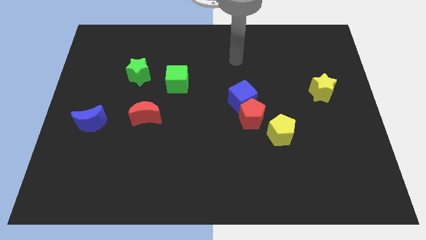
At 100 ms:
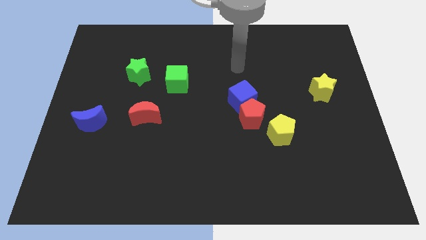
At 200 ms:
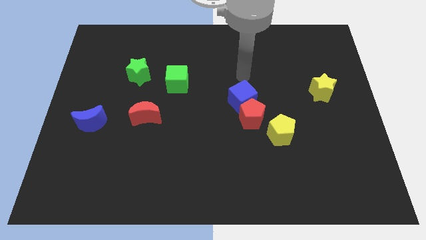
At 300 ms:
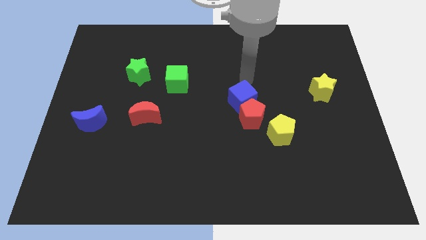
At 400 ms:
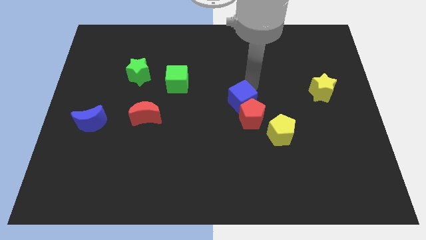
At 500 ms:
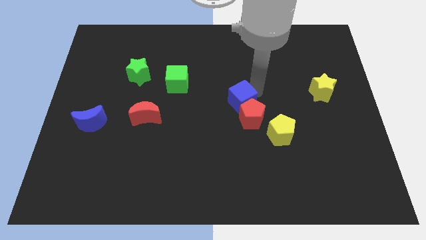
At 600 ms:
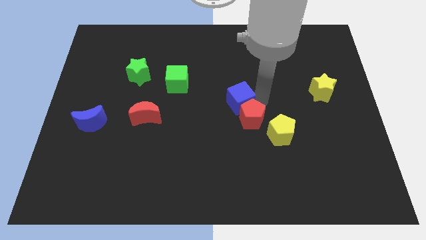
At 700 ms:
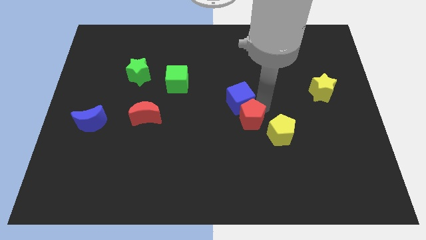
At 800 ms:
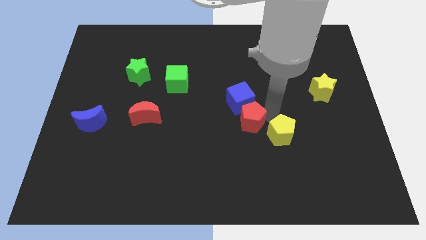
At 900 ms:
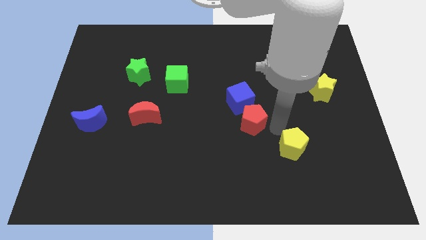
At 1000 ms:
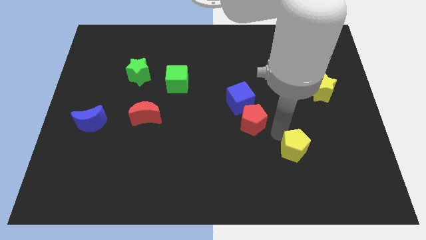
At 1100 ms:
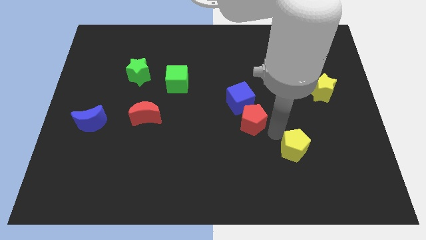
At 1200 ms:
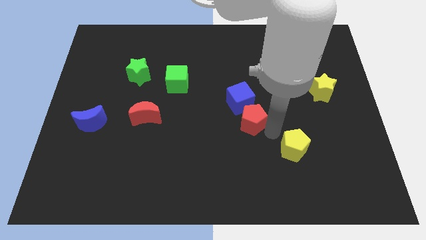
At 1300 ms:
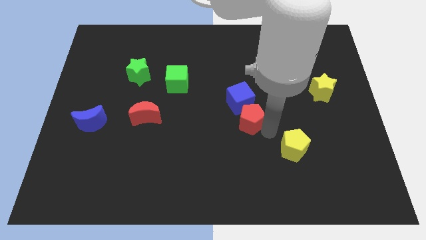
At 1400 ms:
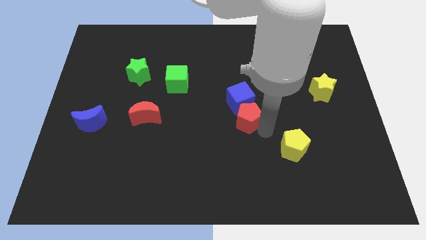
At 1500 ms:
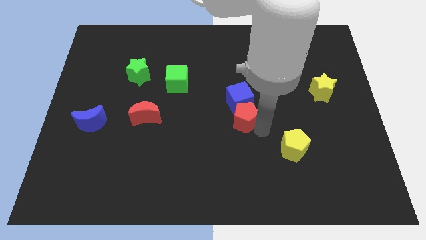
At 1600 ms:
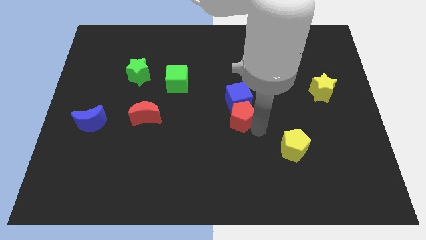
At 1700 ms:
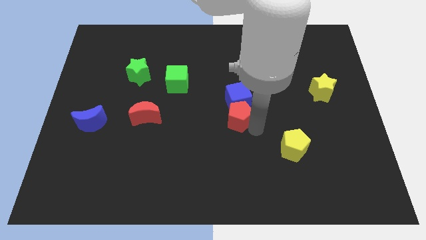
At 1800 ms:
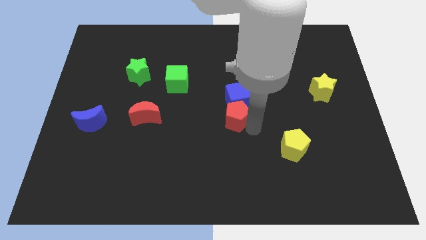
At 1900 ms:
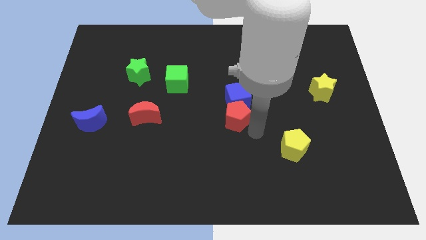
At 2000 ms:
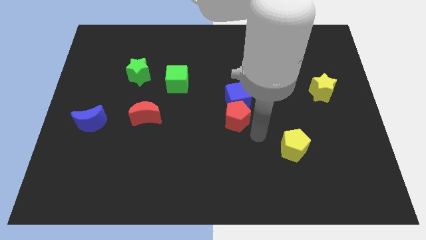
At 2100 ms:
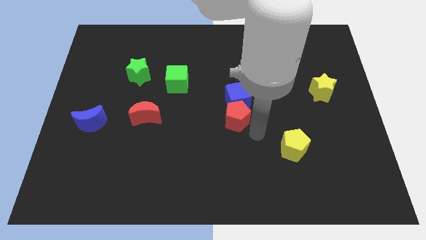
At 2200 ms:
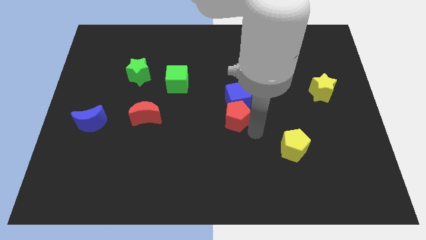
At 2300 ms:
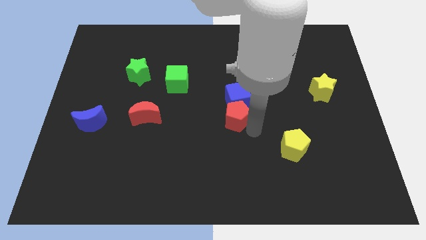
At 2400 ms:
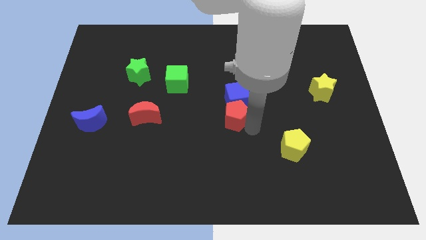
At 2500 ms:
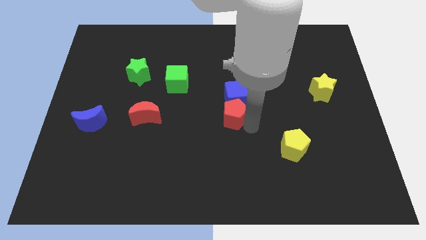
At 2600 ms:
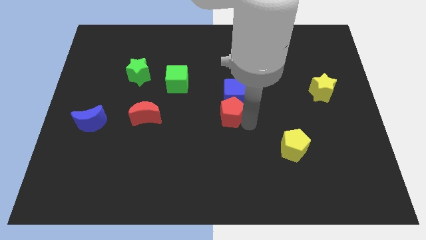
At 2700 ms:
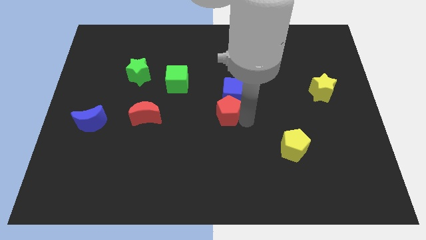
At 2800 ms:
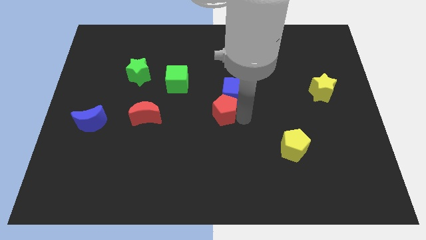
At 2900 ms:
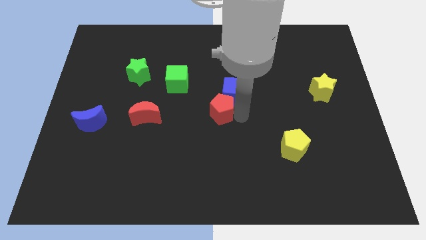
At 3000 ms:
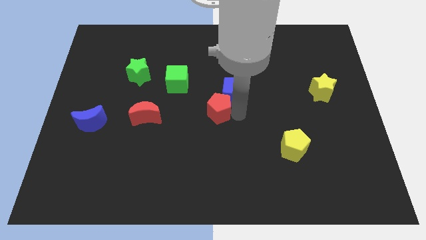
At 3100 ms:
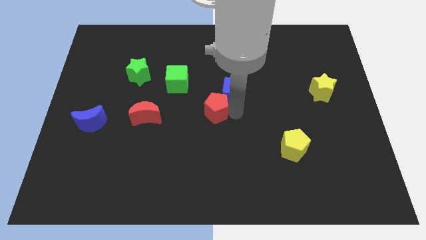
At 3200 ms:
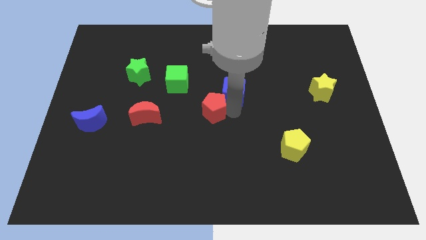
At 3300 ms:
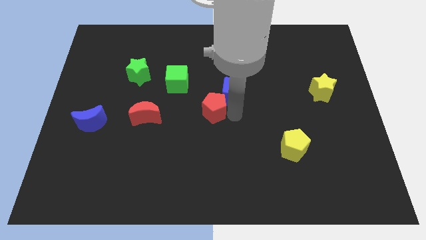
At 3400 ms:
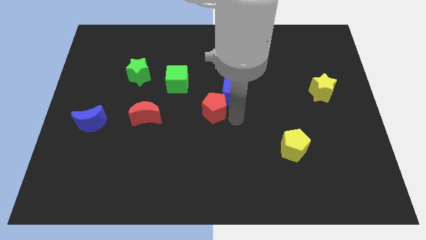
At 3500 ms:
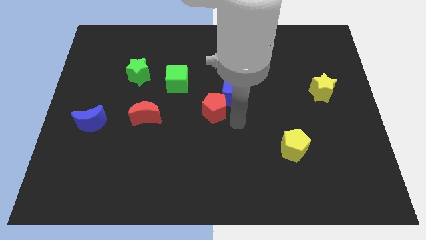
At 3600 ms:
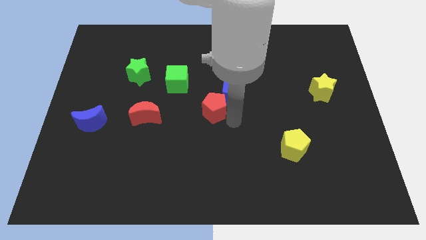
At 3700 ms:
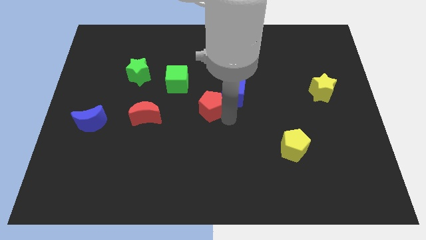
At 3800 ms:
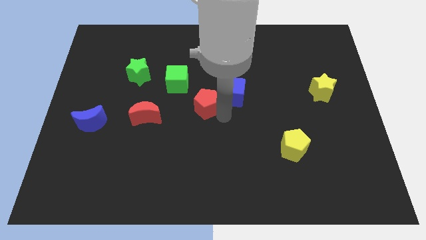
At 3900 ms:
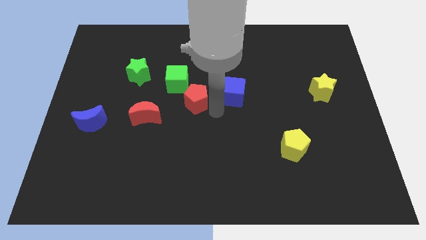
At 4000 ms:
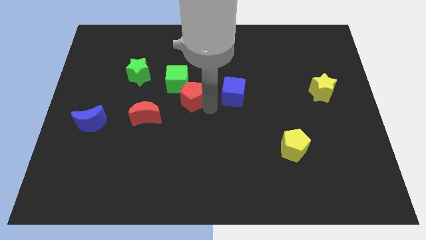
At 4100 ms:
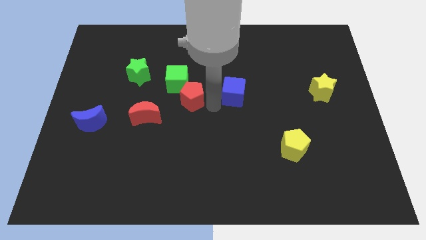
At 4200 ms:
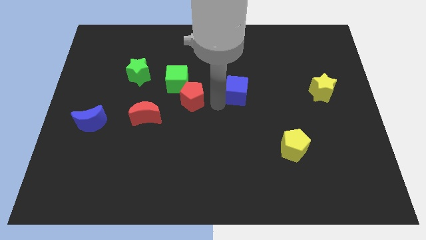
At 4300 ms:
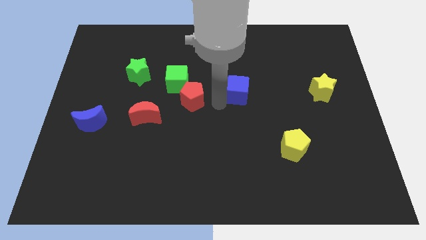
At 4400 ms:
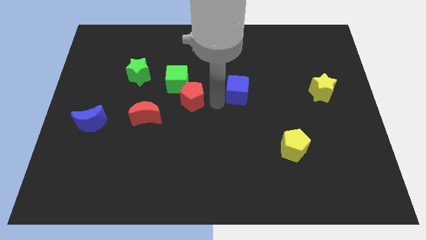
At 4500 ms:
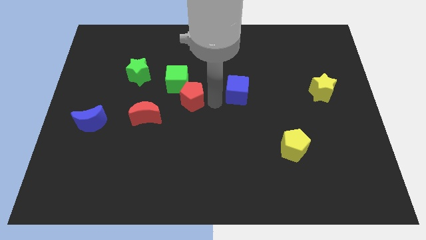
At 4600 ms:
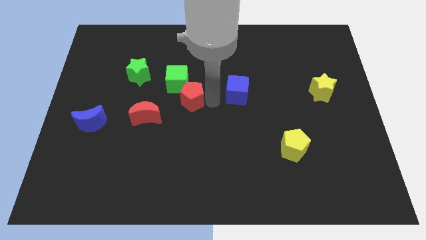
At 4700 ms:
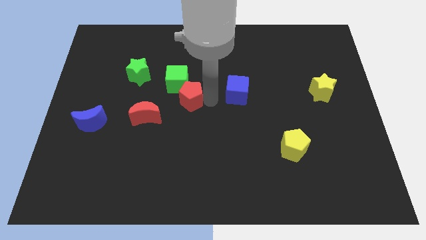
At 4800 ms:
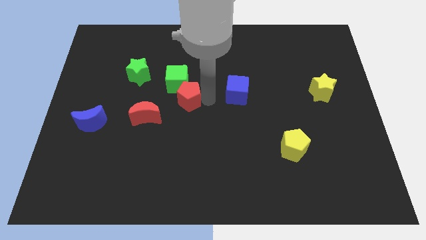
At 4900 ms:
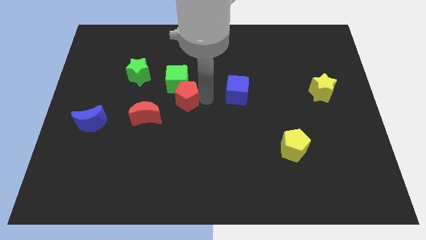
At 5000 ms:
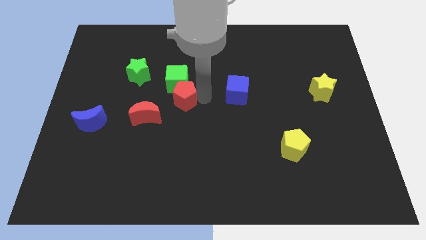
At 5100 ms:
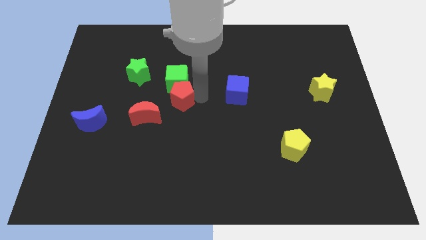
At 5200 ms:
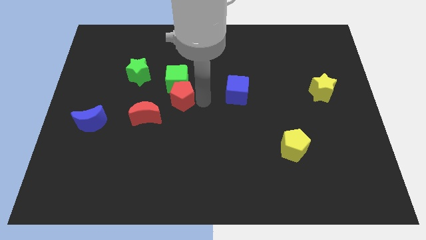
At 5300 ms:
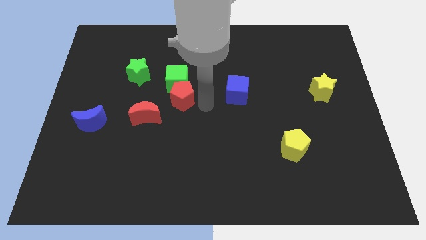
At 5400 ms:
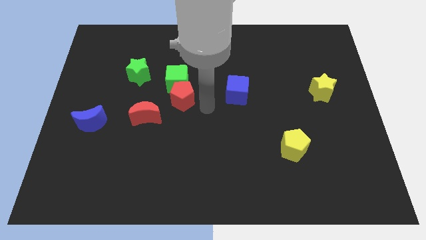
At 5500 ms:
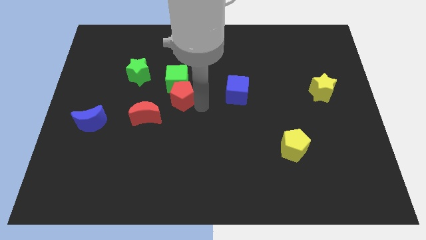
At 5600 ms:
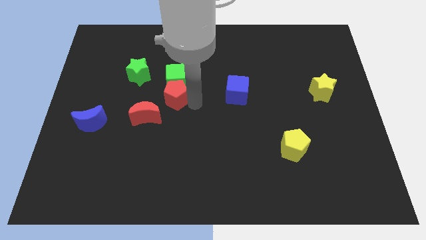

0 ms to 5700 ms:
slide the red pentagon to the bottom right of the green star
